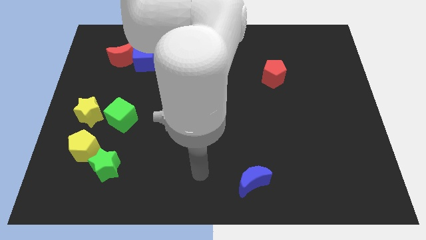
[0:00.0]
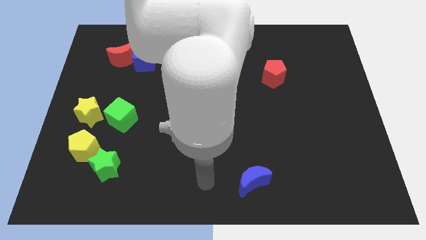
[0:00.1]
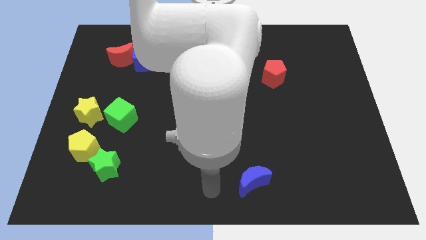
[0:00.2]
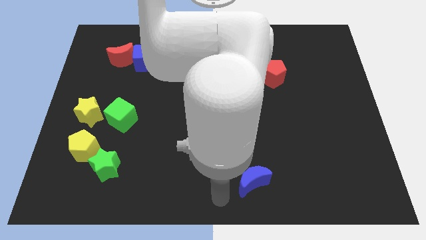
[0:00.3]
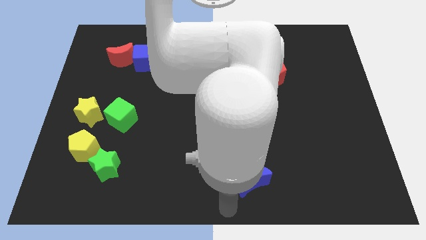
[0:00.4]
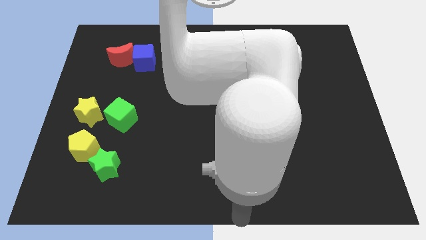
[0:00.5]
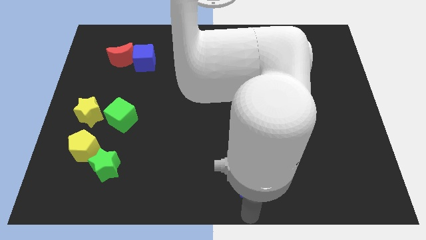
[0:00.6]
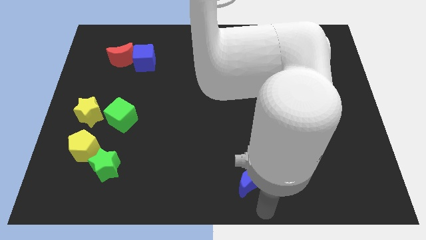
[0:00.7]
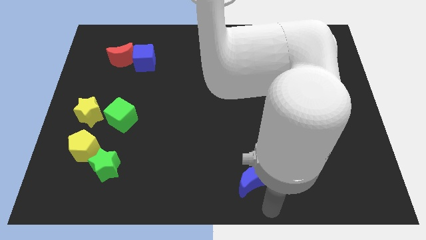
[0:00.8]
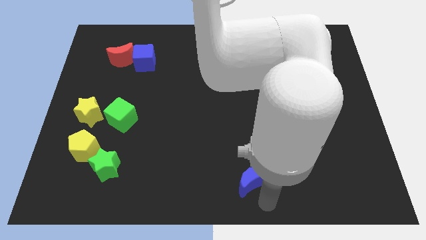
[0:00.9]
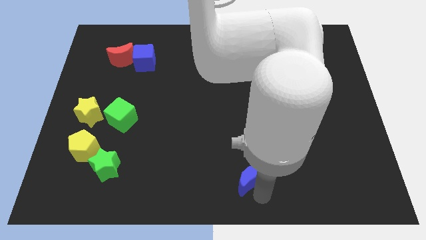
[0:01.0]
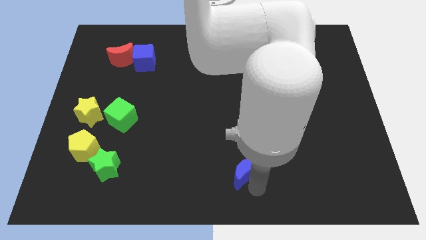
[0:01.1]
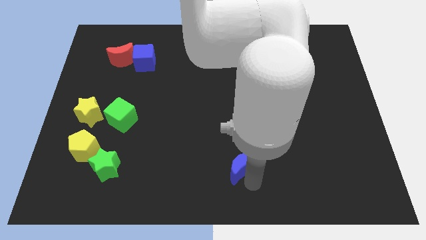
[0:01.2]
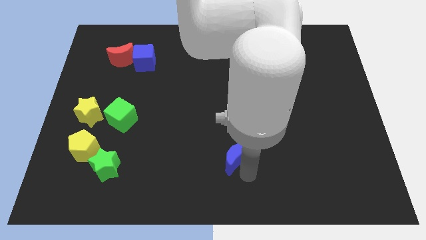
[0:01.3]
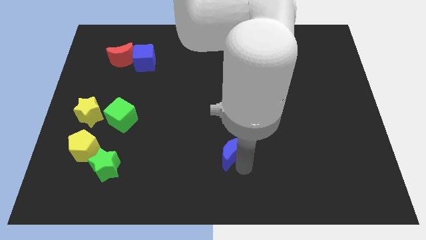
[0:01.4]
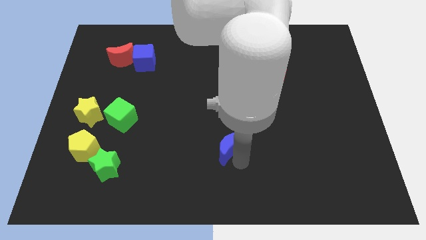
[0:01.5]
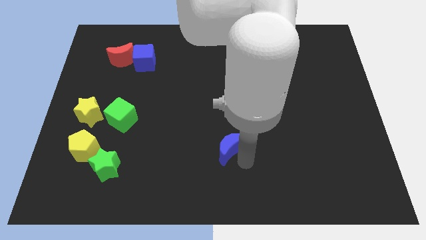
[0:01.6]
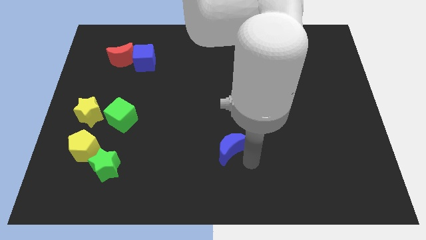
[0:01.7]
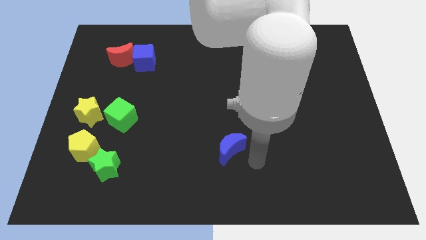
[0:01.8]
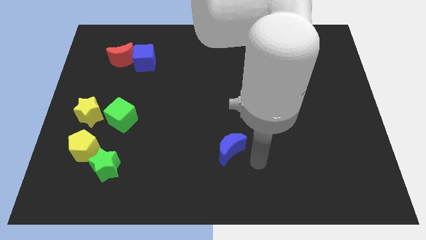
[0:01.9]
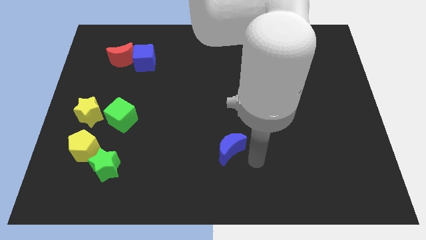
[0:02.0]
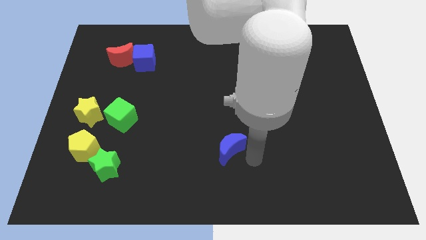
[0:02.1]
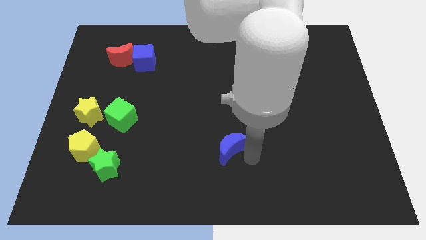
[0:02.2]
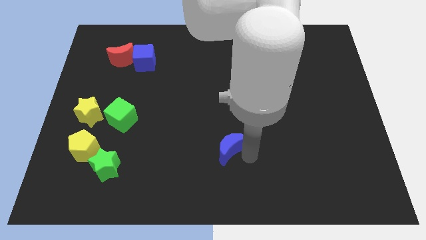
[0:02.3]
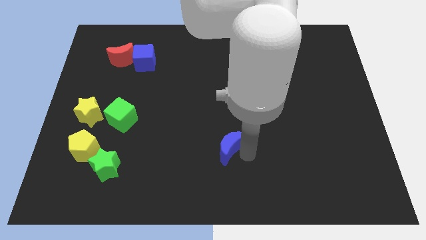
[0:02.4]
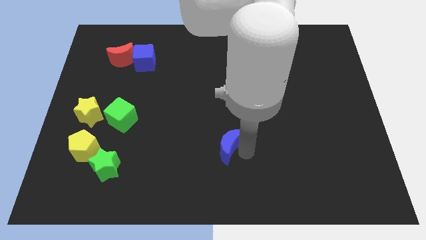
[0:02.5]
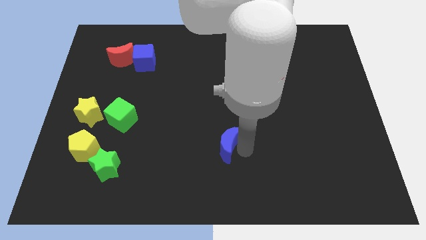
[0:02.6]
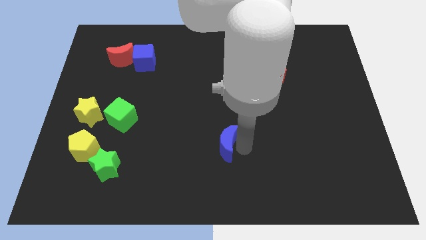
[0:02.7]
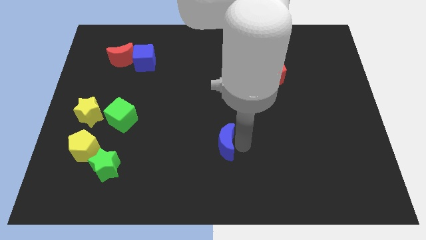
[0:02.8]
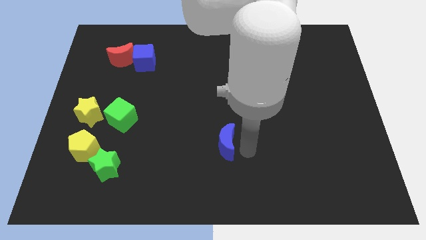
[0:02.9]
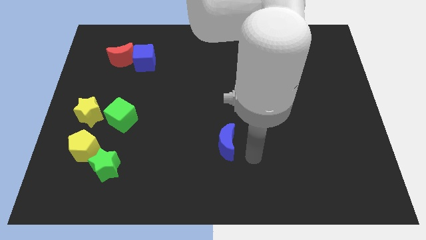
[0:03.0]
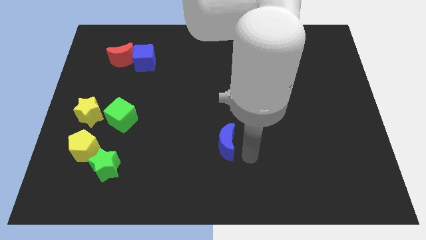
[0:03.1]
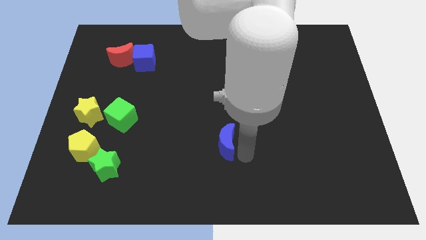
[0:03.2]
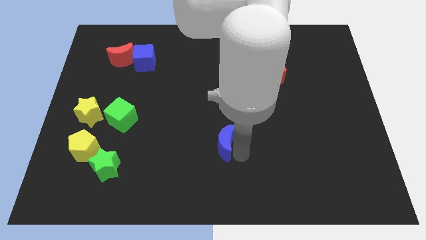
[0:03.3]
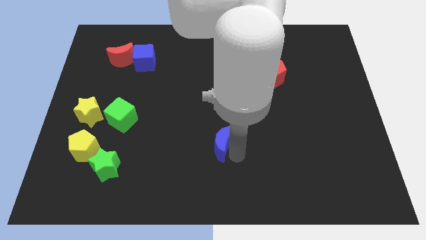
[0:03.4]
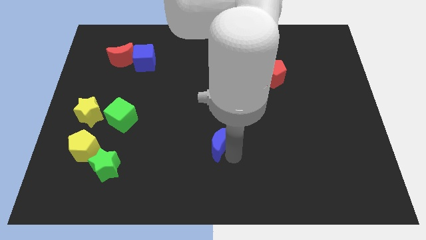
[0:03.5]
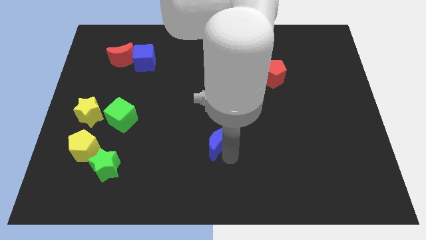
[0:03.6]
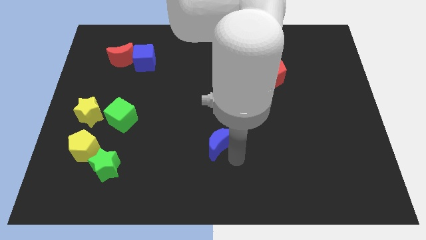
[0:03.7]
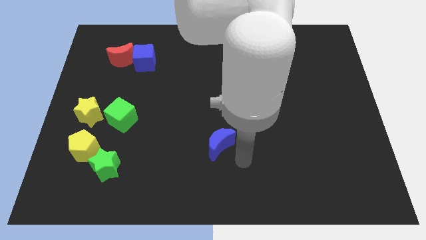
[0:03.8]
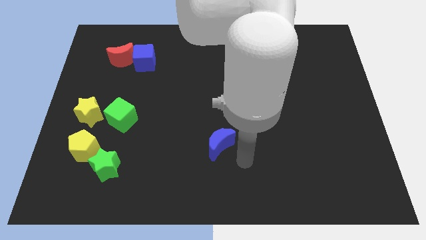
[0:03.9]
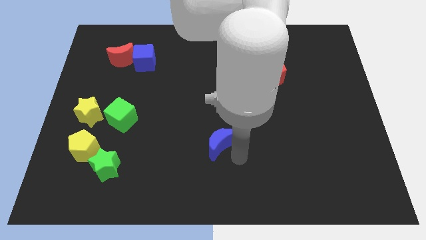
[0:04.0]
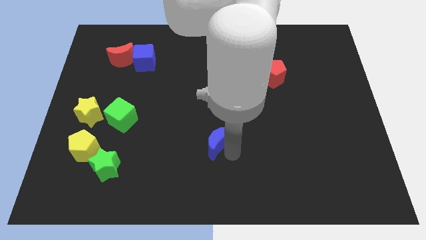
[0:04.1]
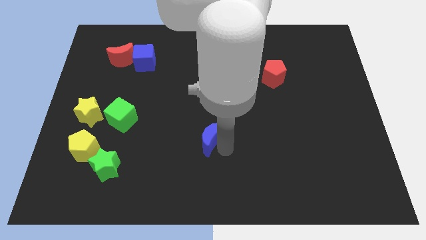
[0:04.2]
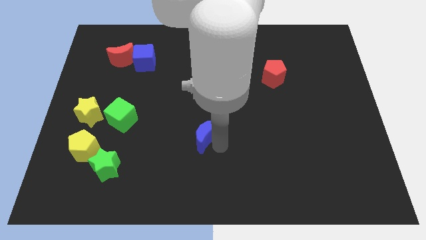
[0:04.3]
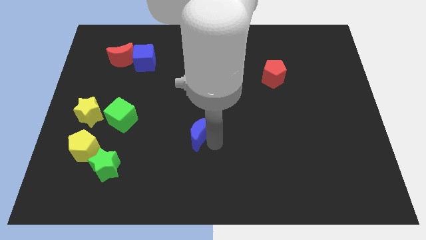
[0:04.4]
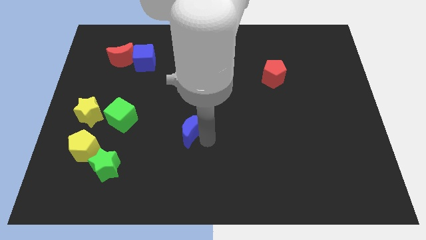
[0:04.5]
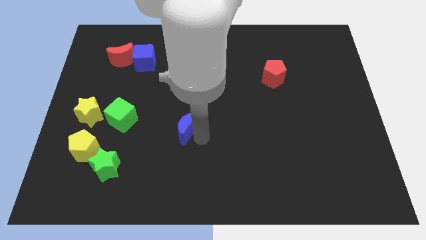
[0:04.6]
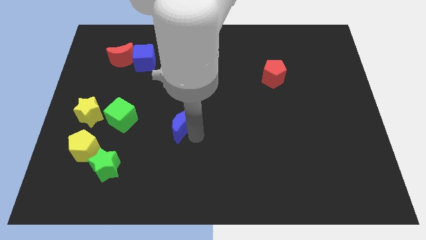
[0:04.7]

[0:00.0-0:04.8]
push the blue moon upwards and then to the left

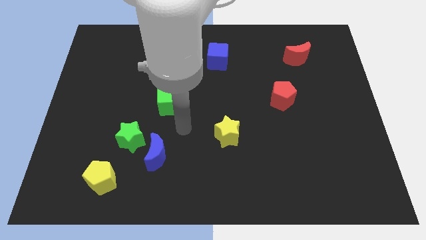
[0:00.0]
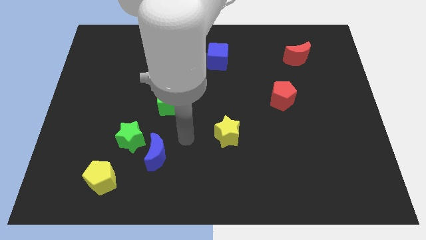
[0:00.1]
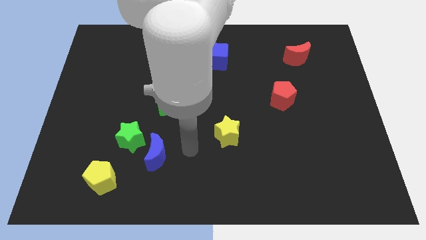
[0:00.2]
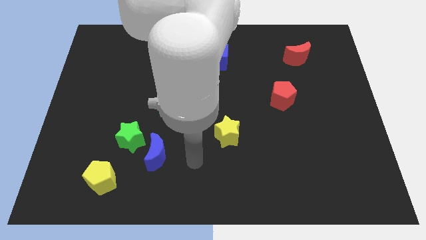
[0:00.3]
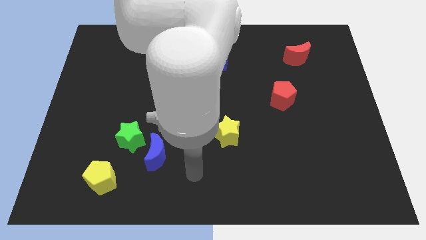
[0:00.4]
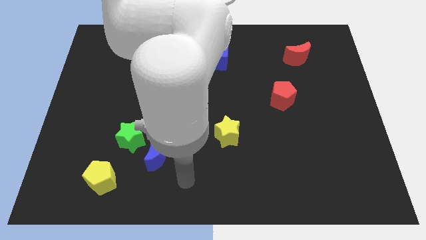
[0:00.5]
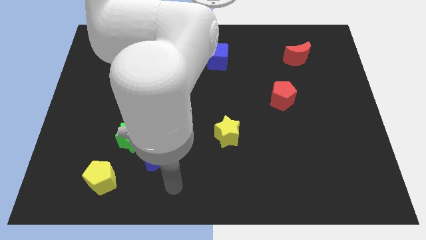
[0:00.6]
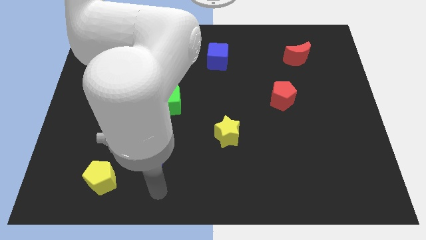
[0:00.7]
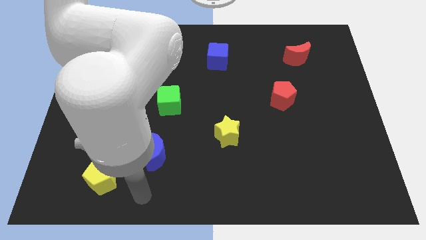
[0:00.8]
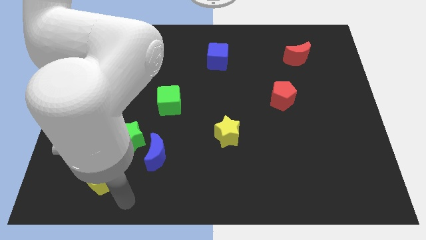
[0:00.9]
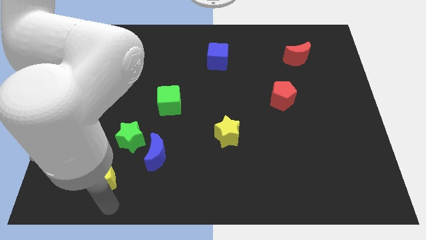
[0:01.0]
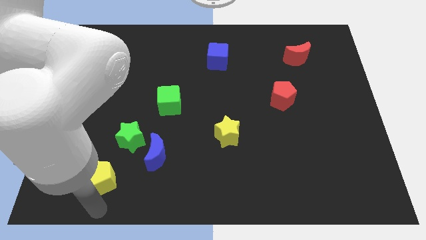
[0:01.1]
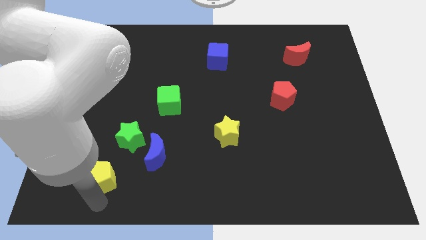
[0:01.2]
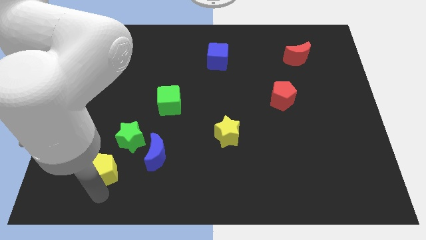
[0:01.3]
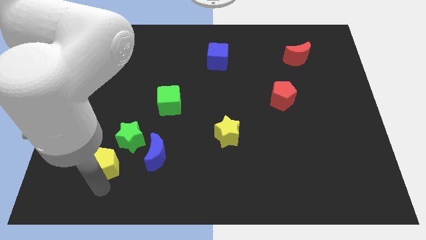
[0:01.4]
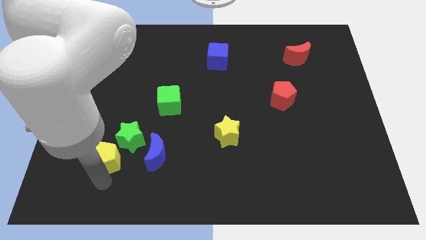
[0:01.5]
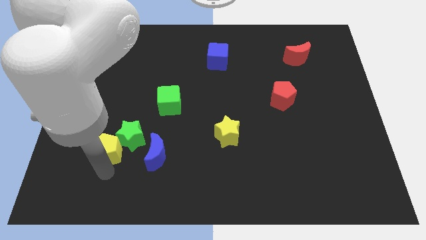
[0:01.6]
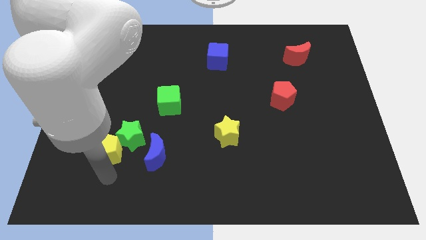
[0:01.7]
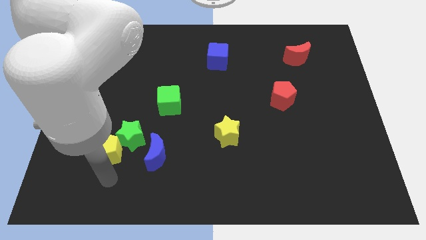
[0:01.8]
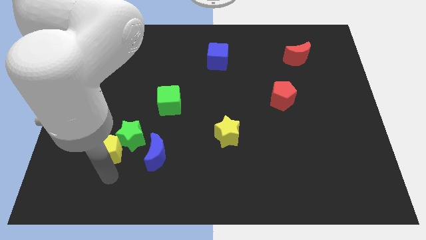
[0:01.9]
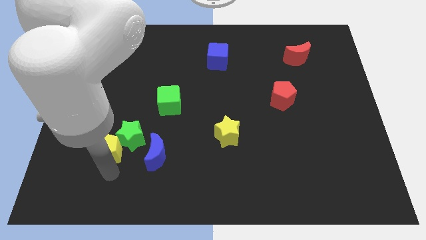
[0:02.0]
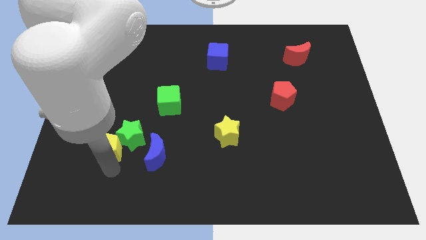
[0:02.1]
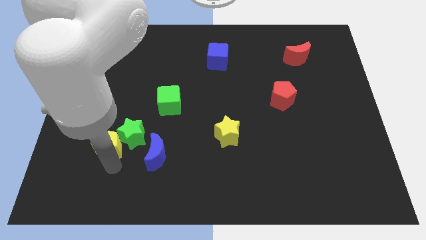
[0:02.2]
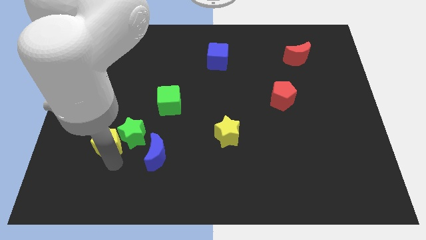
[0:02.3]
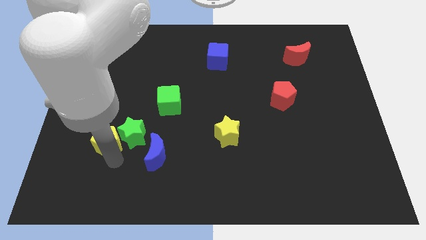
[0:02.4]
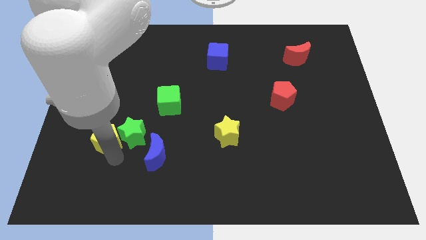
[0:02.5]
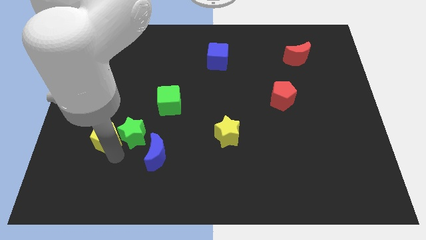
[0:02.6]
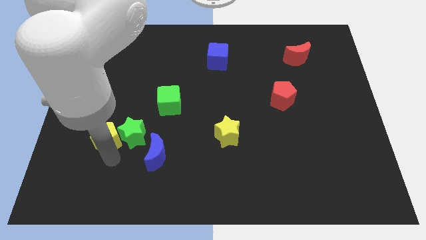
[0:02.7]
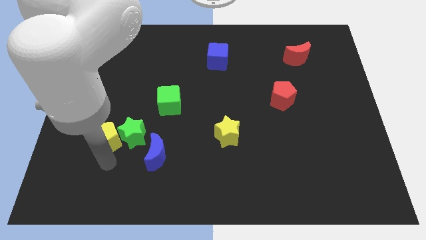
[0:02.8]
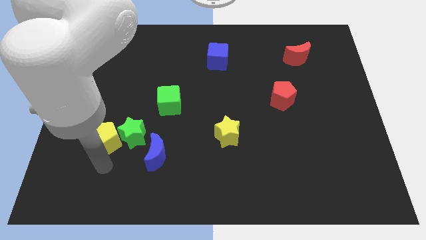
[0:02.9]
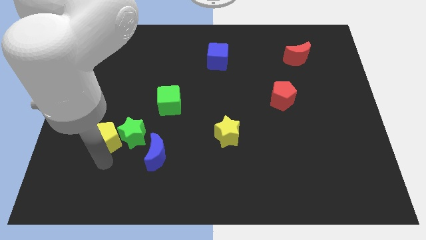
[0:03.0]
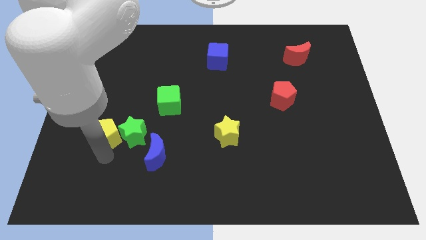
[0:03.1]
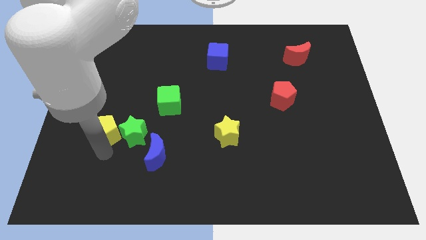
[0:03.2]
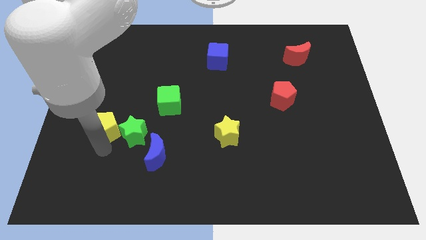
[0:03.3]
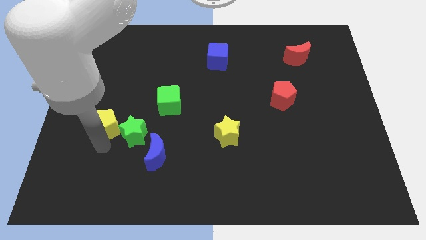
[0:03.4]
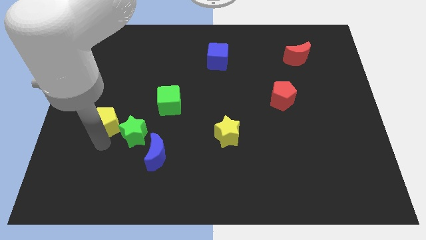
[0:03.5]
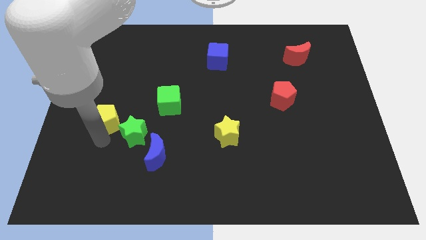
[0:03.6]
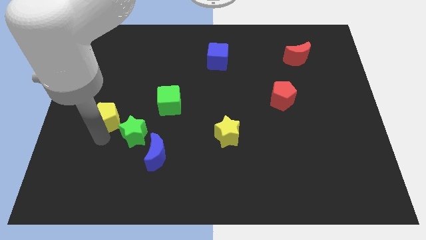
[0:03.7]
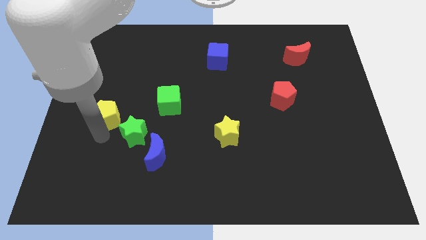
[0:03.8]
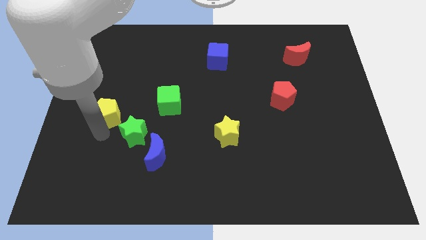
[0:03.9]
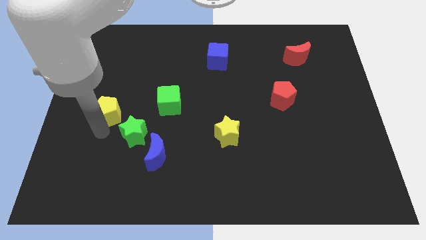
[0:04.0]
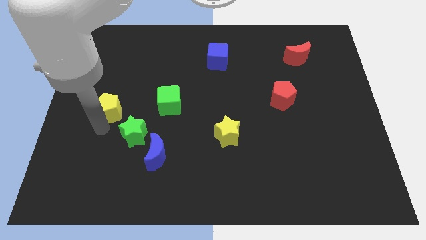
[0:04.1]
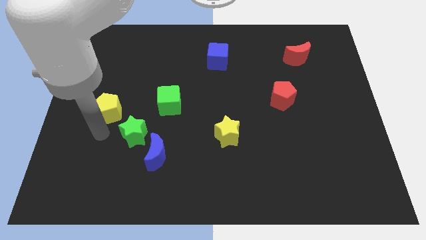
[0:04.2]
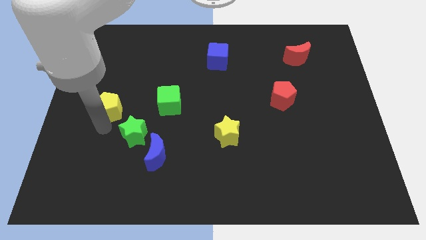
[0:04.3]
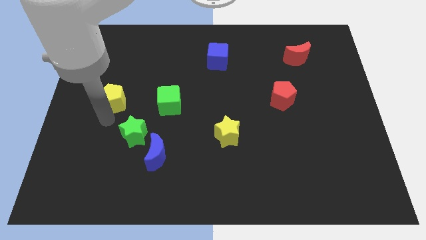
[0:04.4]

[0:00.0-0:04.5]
push the yellow pentagon upwards
